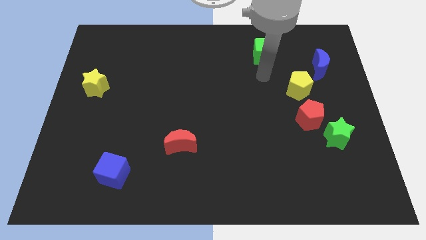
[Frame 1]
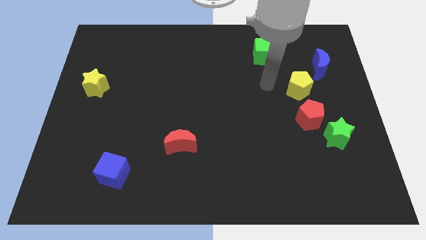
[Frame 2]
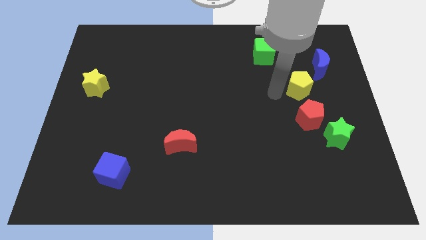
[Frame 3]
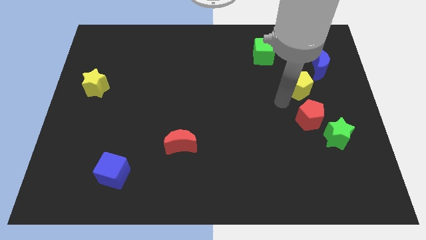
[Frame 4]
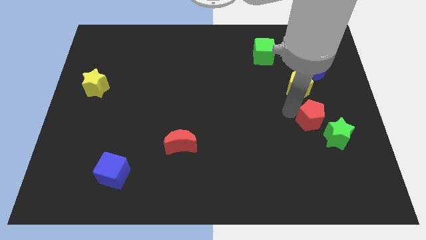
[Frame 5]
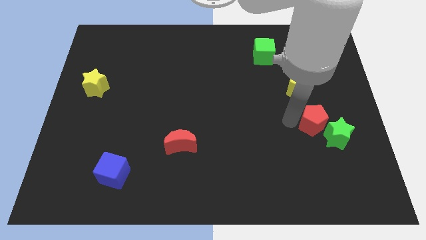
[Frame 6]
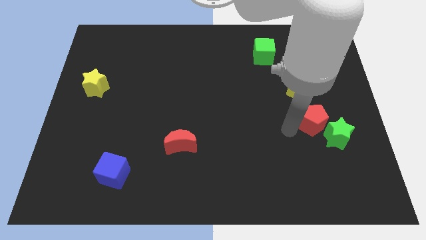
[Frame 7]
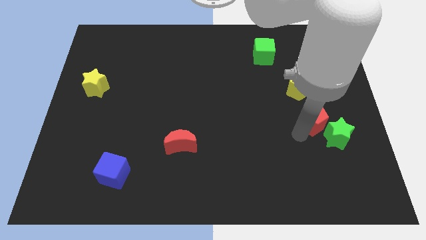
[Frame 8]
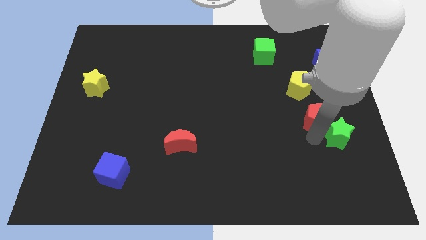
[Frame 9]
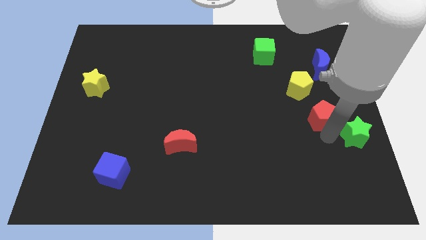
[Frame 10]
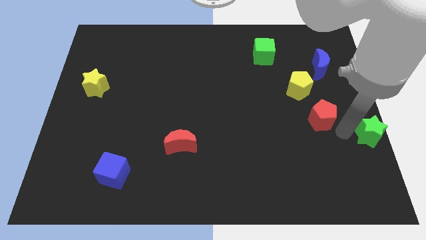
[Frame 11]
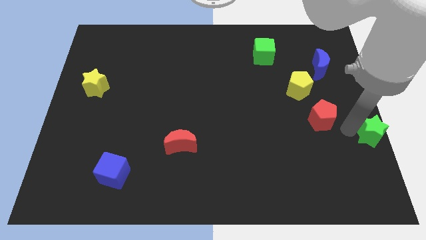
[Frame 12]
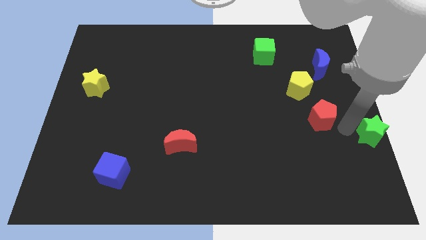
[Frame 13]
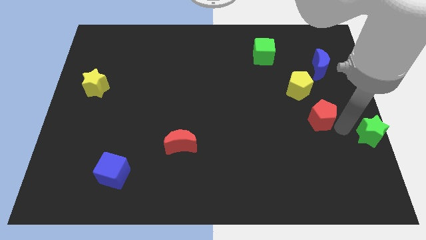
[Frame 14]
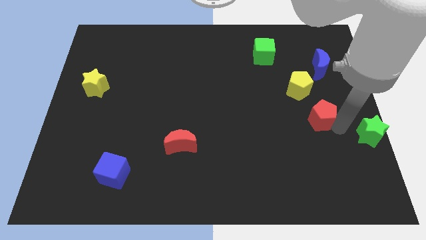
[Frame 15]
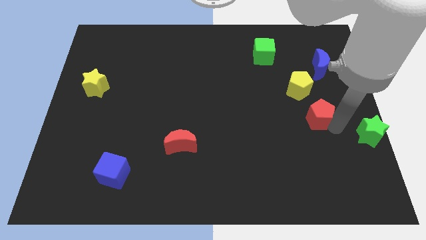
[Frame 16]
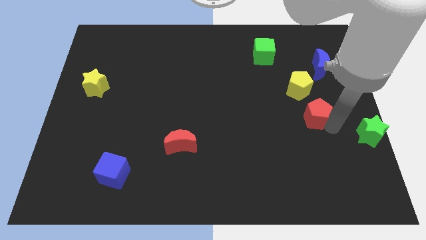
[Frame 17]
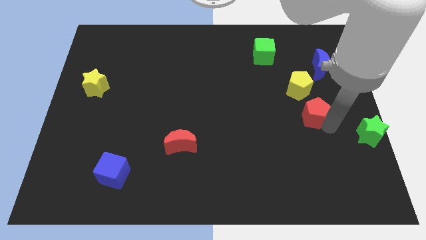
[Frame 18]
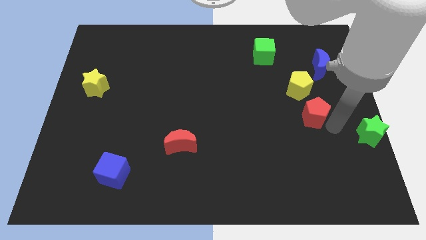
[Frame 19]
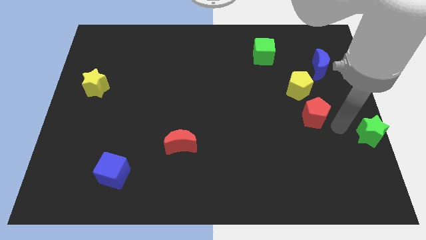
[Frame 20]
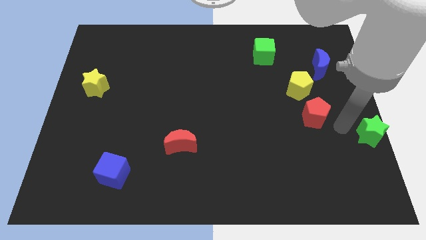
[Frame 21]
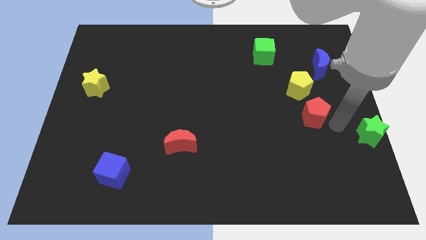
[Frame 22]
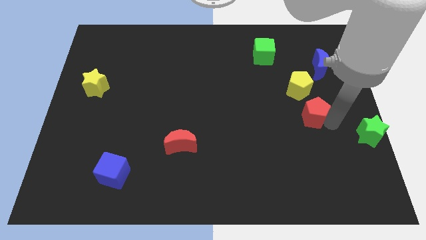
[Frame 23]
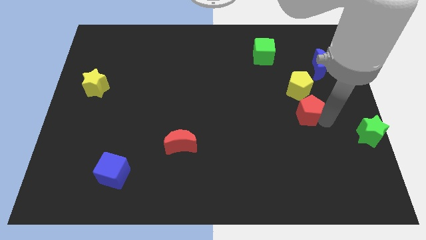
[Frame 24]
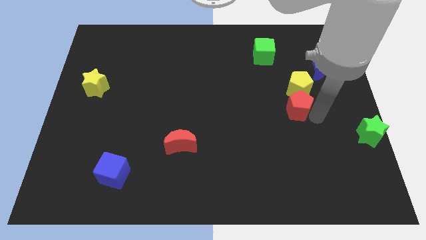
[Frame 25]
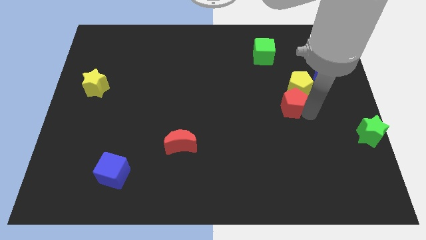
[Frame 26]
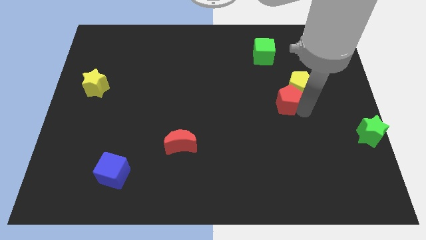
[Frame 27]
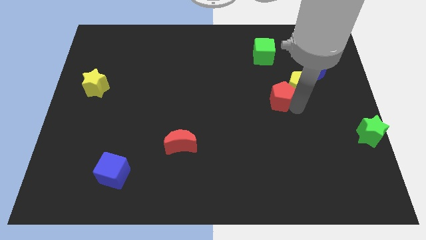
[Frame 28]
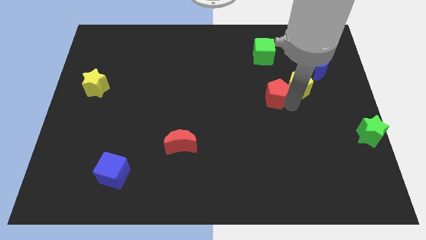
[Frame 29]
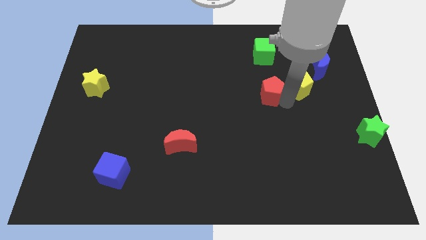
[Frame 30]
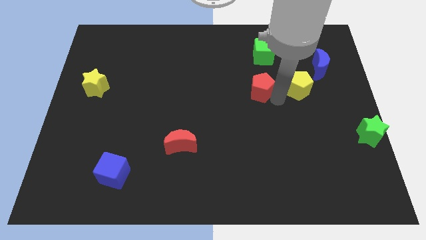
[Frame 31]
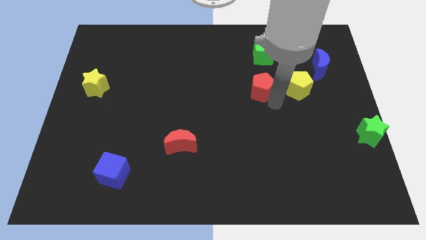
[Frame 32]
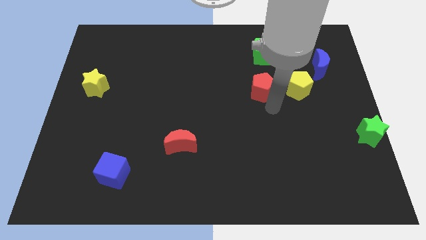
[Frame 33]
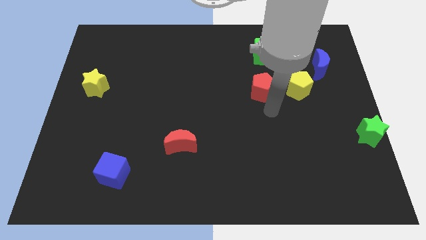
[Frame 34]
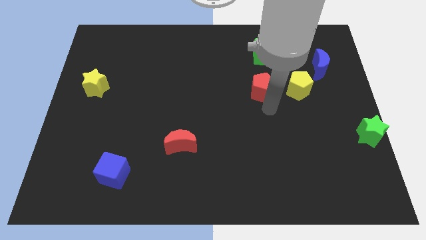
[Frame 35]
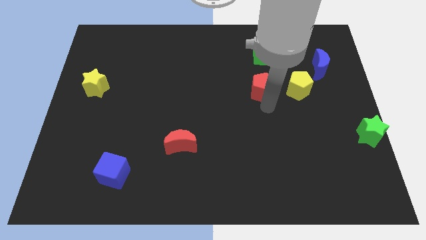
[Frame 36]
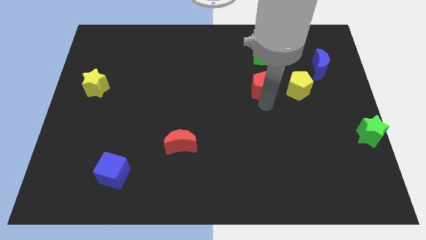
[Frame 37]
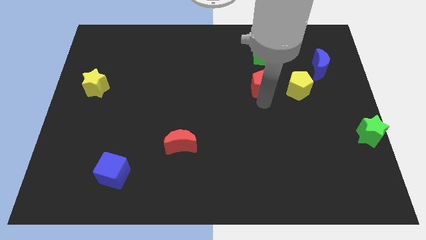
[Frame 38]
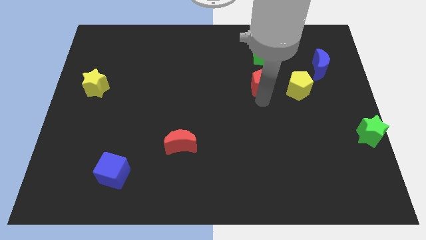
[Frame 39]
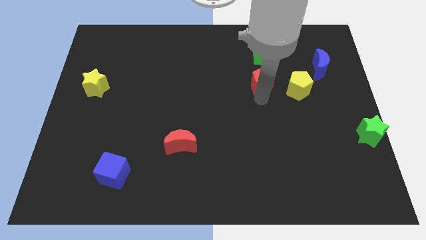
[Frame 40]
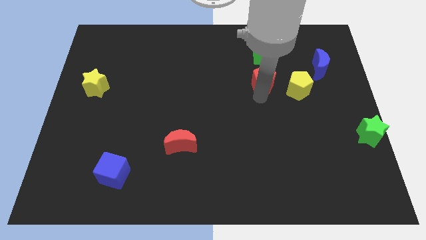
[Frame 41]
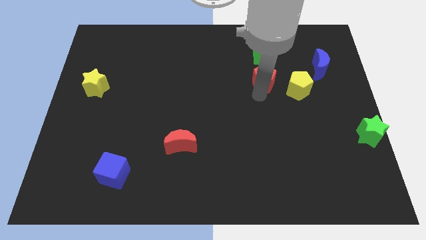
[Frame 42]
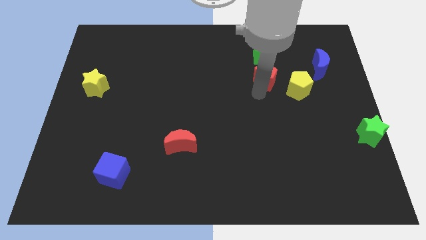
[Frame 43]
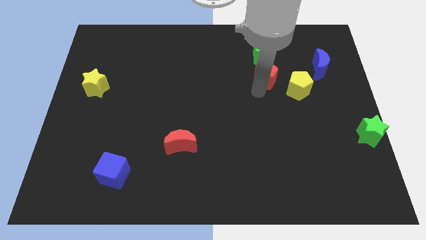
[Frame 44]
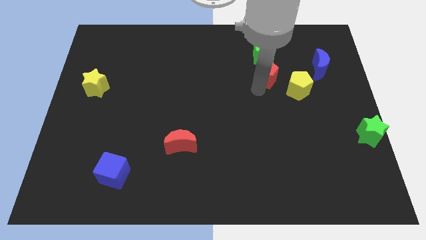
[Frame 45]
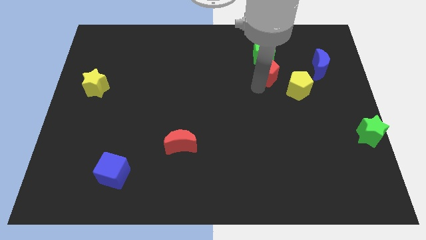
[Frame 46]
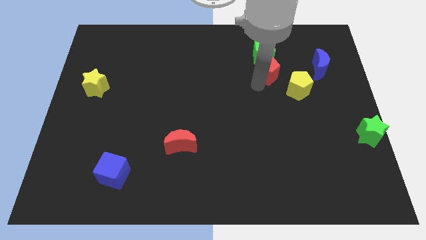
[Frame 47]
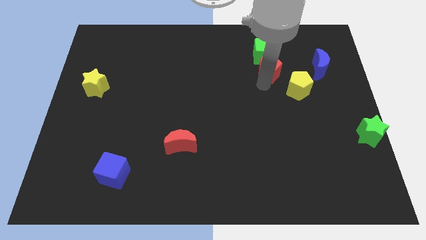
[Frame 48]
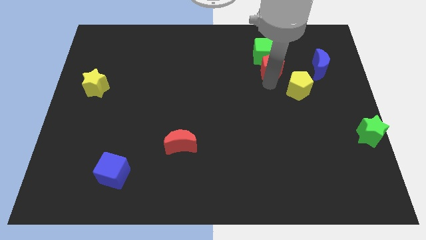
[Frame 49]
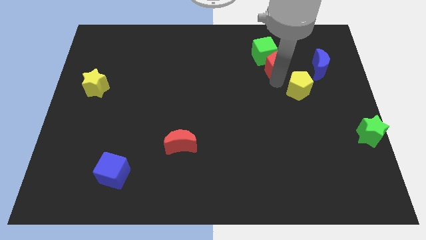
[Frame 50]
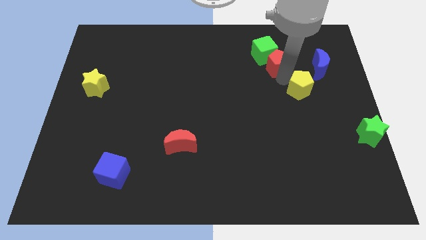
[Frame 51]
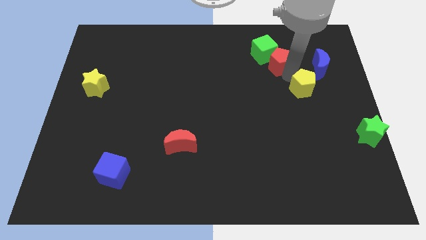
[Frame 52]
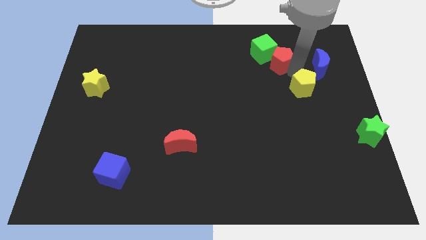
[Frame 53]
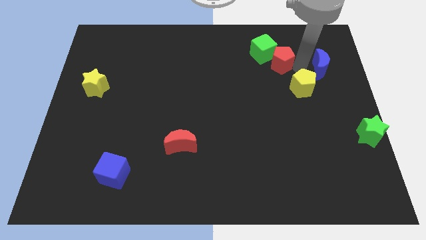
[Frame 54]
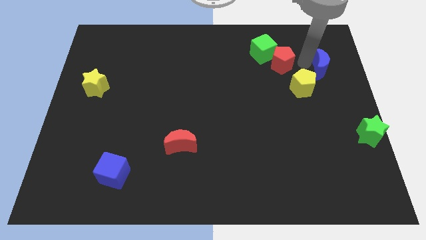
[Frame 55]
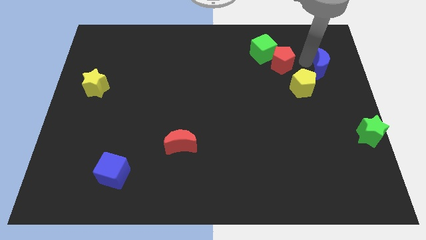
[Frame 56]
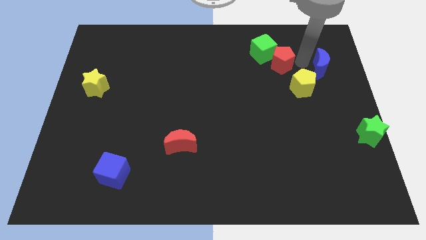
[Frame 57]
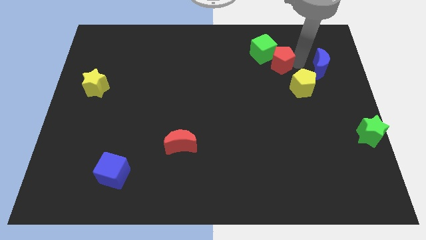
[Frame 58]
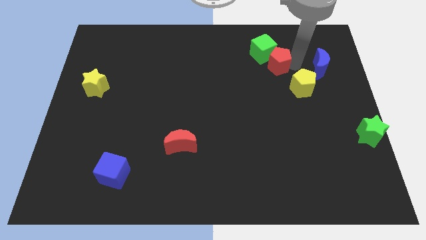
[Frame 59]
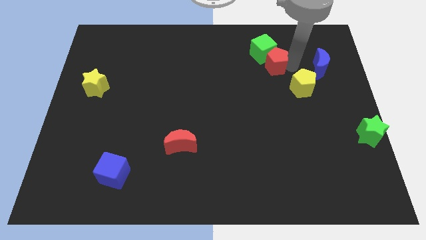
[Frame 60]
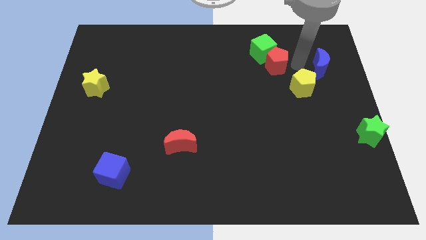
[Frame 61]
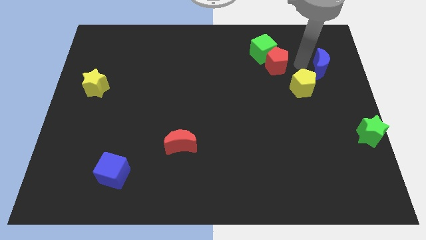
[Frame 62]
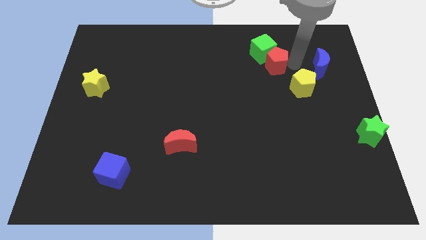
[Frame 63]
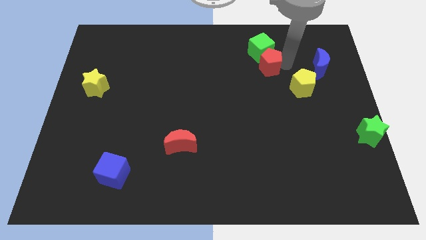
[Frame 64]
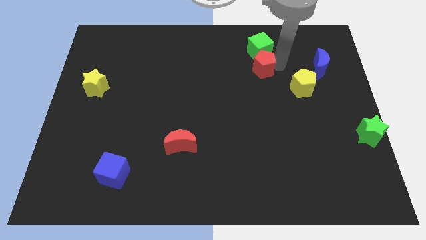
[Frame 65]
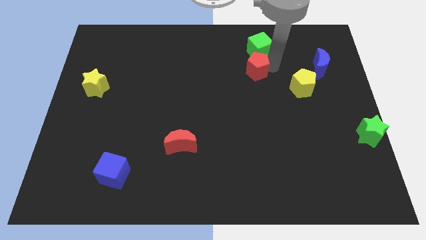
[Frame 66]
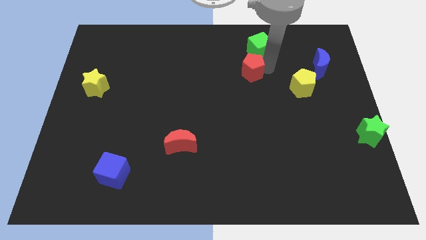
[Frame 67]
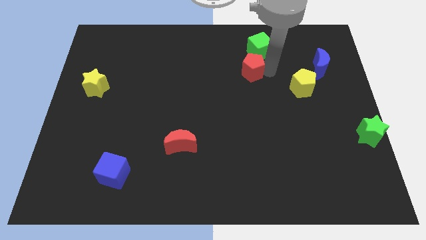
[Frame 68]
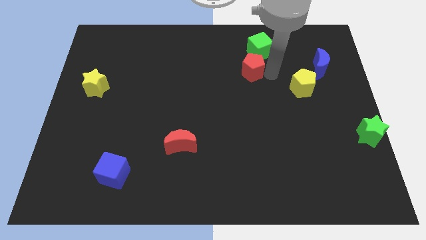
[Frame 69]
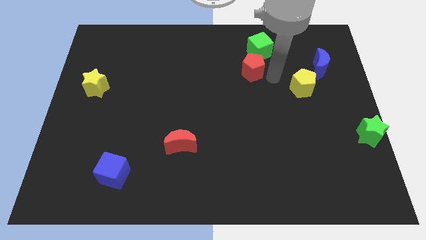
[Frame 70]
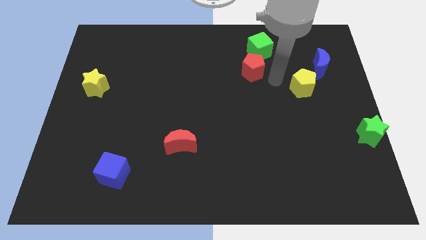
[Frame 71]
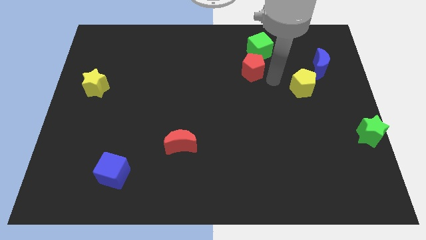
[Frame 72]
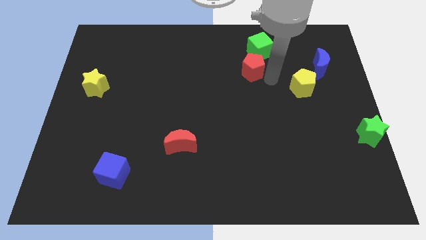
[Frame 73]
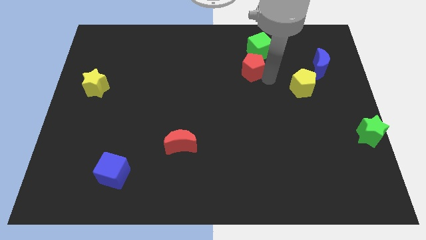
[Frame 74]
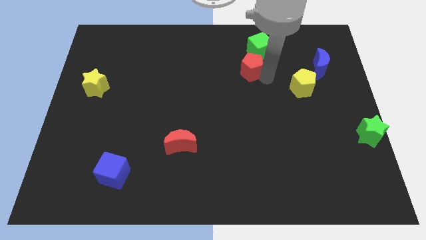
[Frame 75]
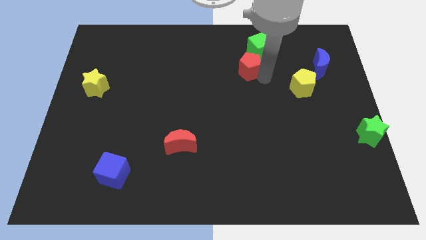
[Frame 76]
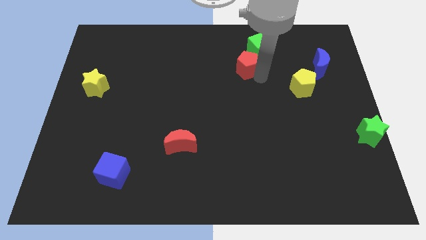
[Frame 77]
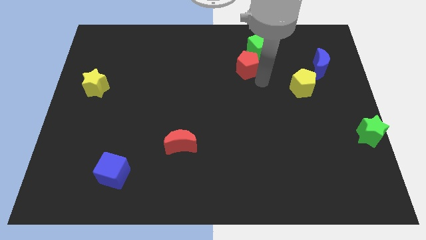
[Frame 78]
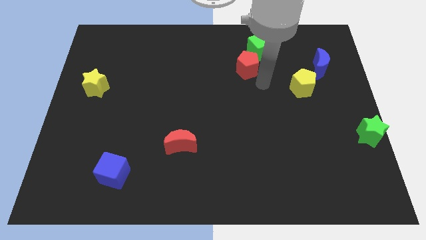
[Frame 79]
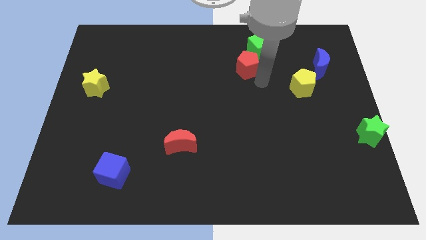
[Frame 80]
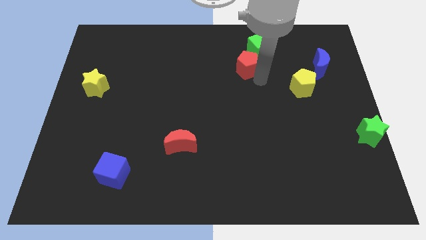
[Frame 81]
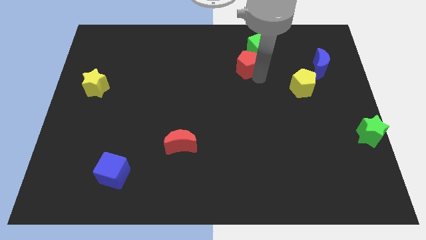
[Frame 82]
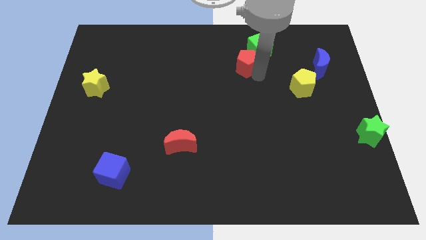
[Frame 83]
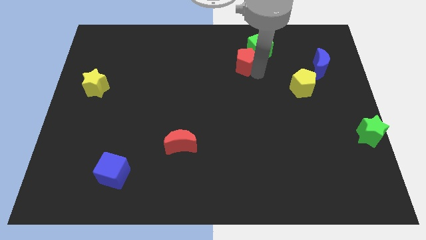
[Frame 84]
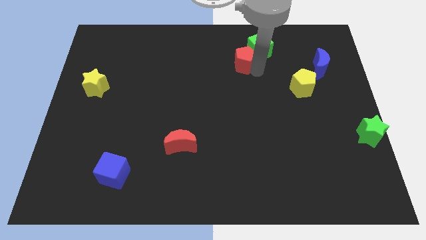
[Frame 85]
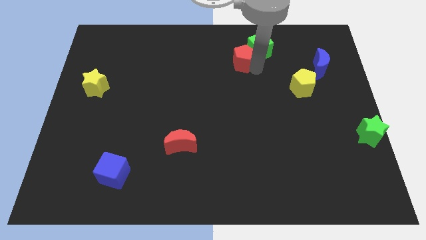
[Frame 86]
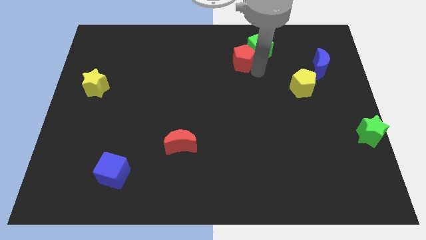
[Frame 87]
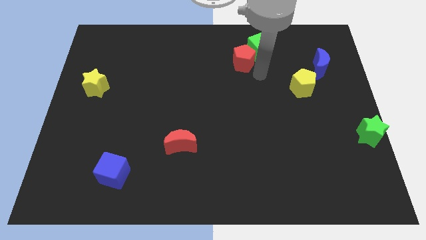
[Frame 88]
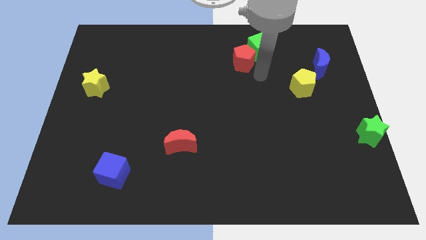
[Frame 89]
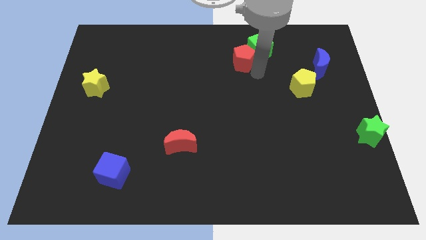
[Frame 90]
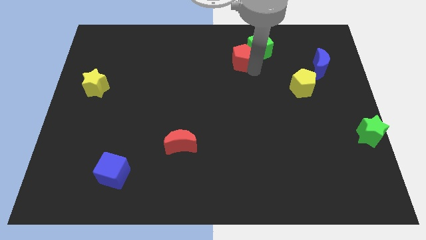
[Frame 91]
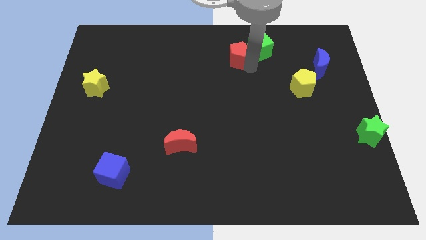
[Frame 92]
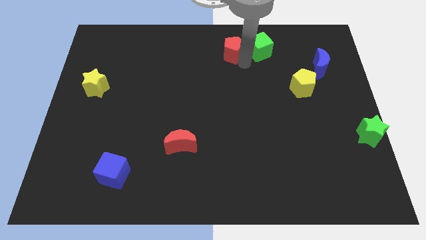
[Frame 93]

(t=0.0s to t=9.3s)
move the red pentagon to the top
